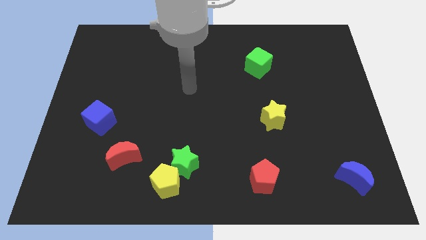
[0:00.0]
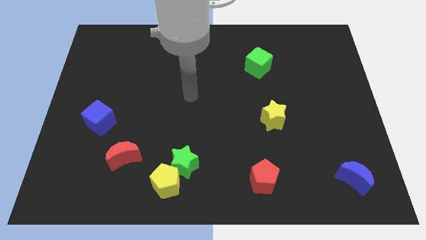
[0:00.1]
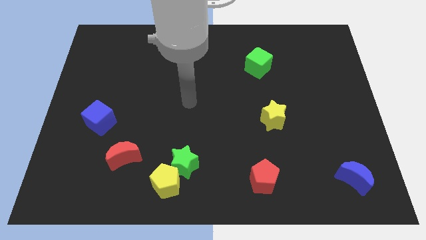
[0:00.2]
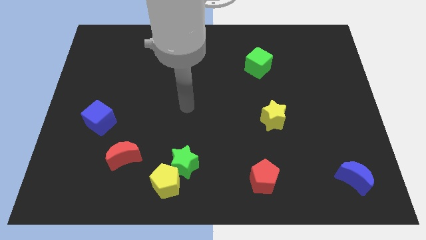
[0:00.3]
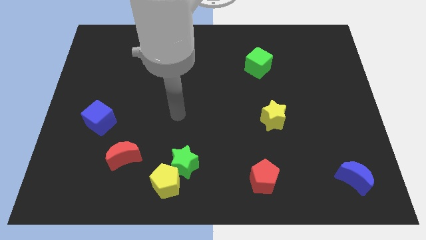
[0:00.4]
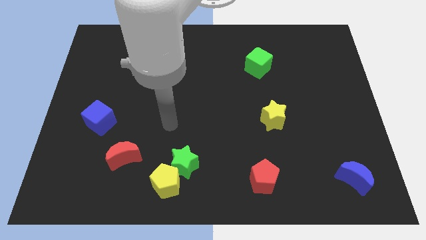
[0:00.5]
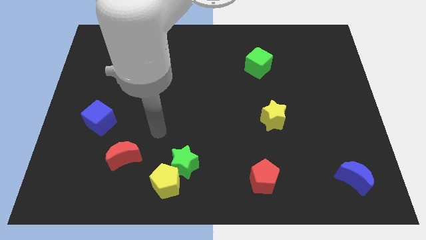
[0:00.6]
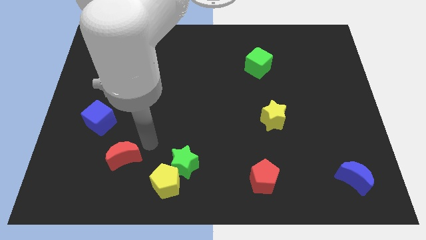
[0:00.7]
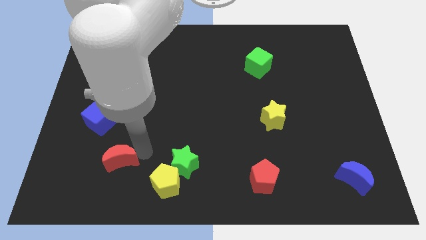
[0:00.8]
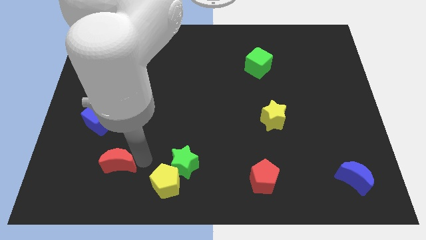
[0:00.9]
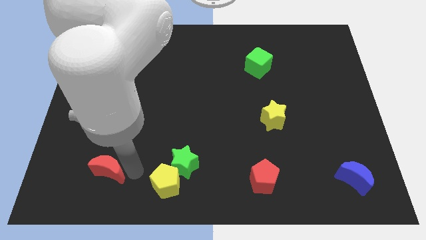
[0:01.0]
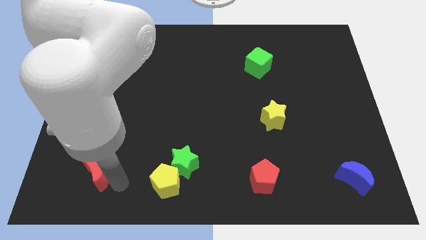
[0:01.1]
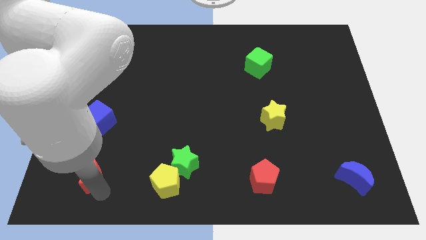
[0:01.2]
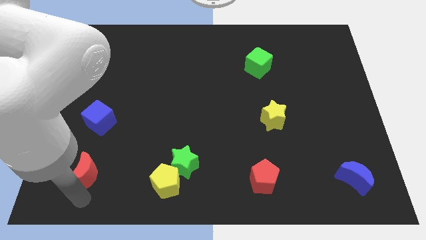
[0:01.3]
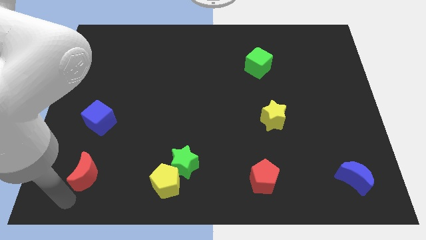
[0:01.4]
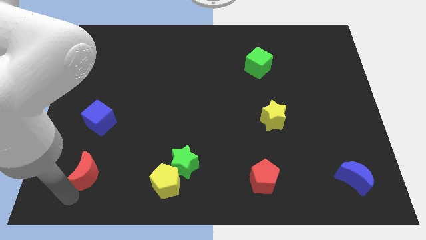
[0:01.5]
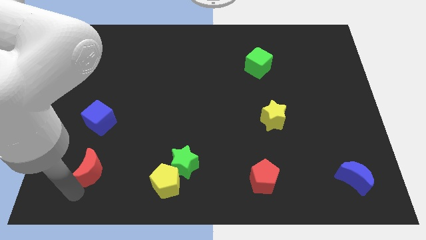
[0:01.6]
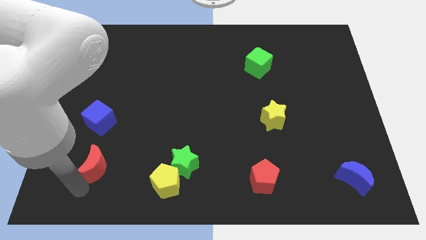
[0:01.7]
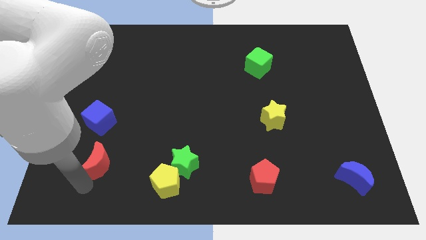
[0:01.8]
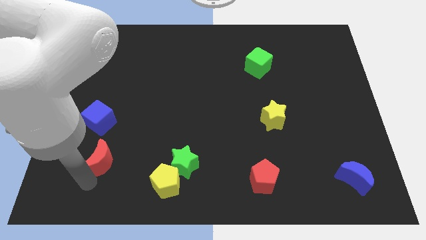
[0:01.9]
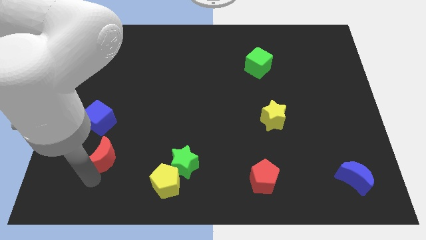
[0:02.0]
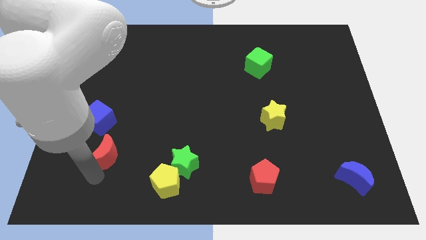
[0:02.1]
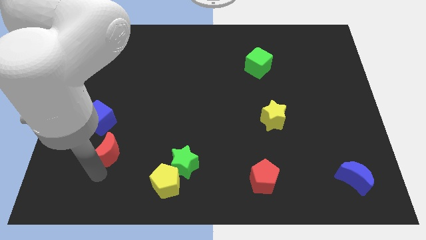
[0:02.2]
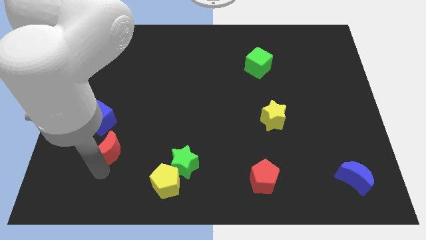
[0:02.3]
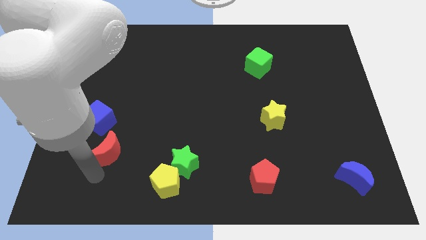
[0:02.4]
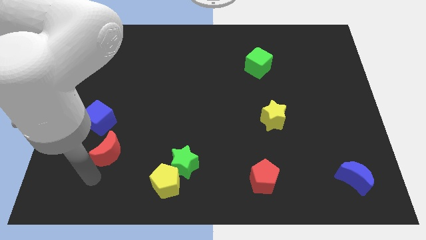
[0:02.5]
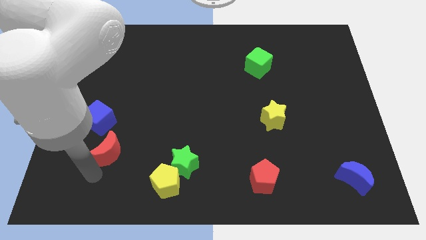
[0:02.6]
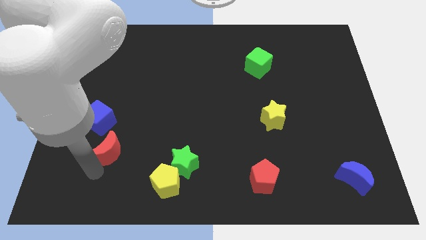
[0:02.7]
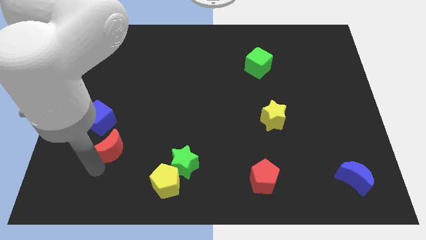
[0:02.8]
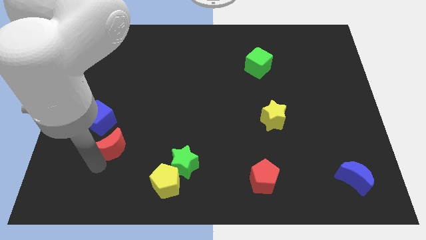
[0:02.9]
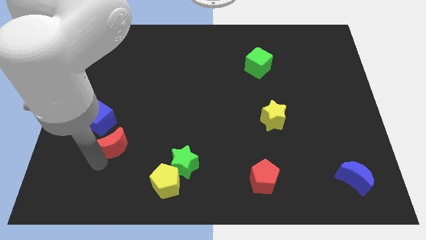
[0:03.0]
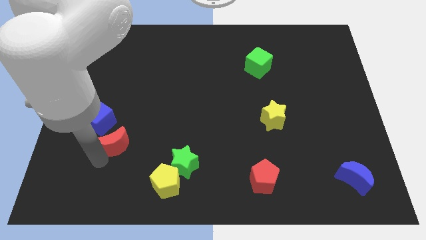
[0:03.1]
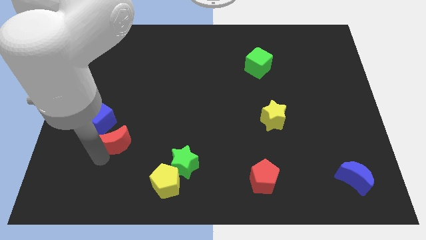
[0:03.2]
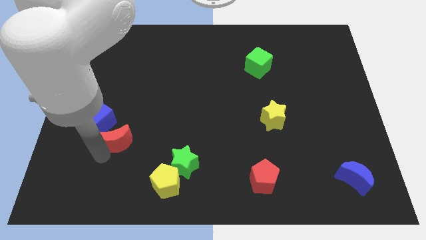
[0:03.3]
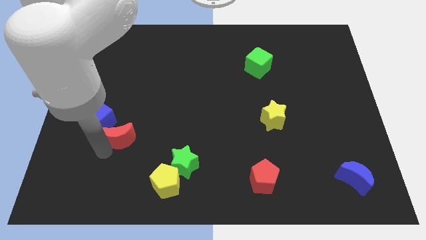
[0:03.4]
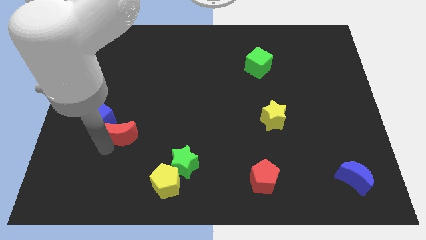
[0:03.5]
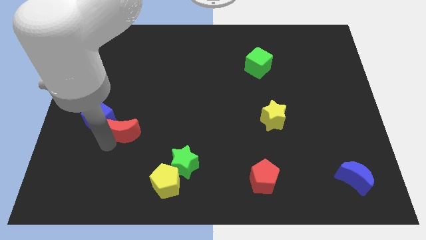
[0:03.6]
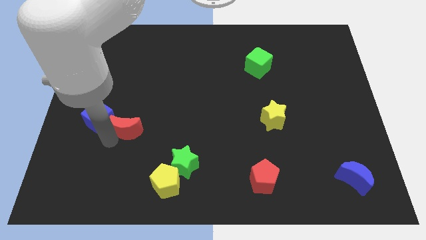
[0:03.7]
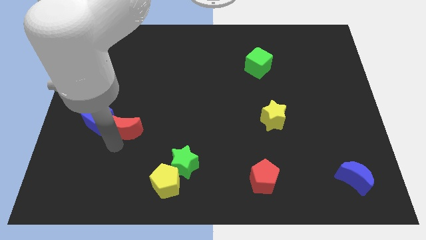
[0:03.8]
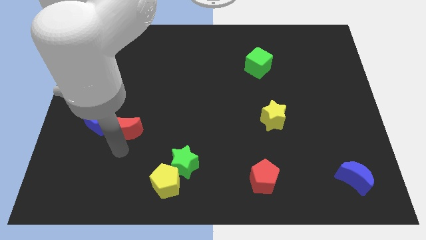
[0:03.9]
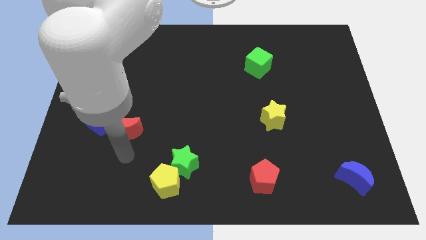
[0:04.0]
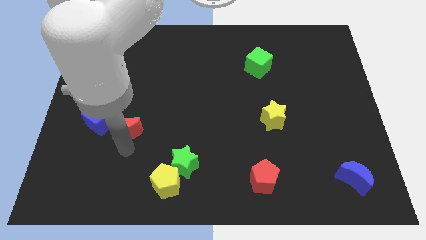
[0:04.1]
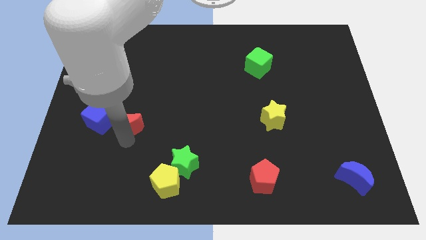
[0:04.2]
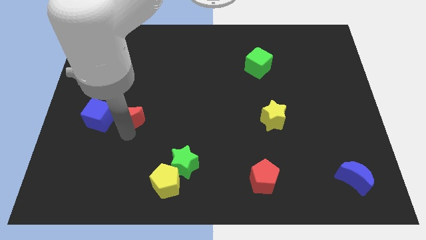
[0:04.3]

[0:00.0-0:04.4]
push the red moon diagonally up and to the right of the blue cube

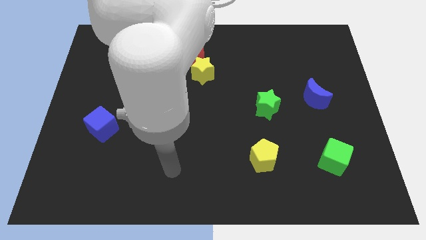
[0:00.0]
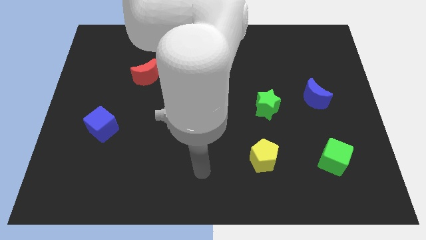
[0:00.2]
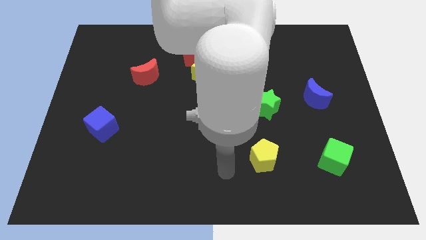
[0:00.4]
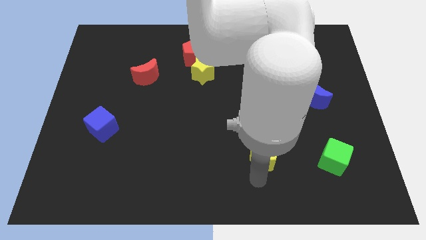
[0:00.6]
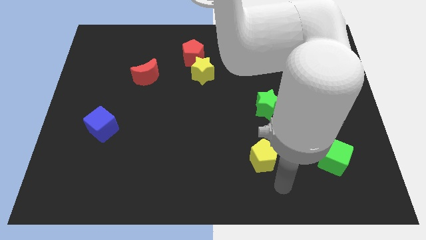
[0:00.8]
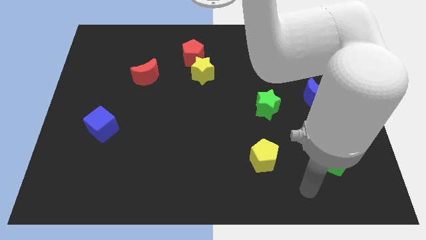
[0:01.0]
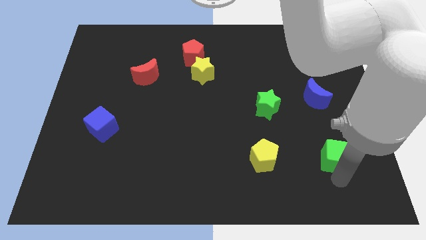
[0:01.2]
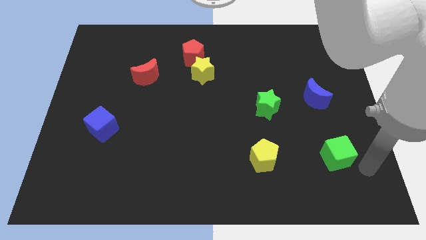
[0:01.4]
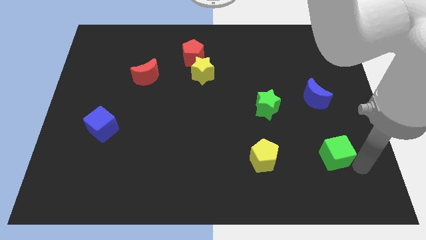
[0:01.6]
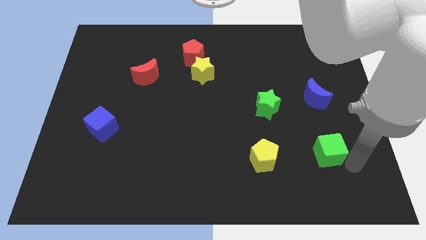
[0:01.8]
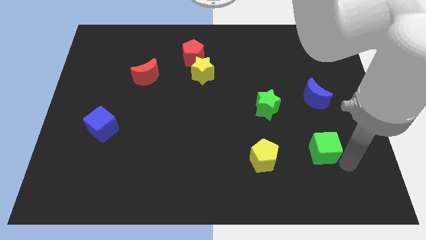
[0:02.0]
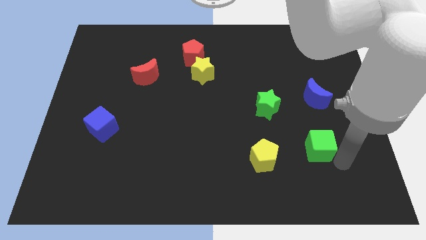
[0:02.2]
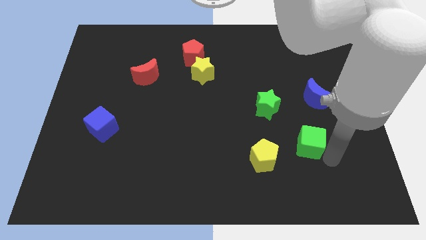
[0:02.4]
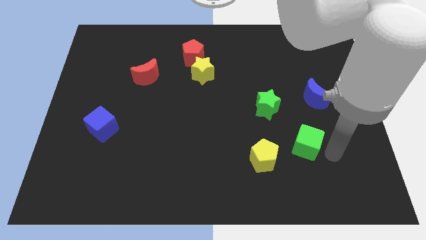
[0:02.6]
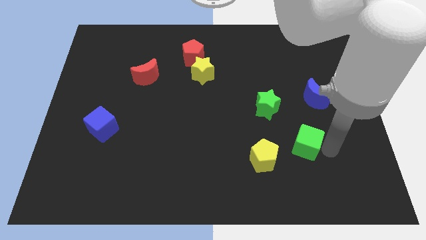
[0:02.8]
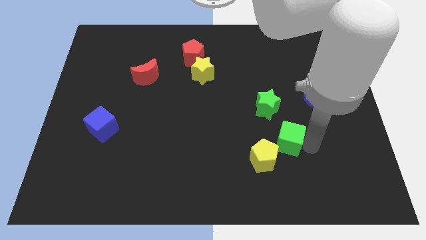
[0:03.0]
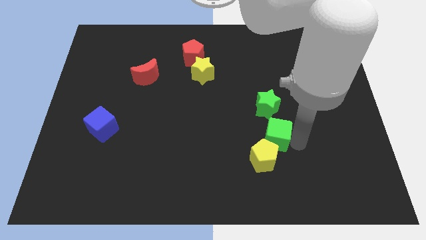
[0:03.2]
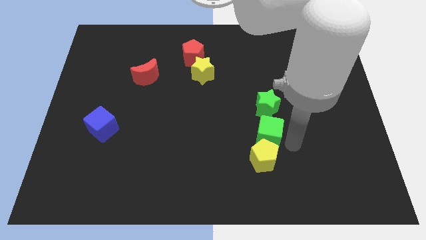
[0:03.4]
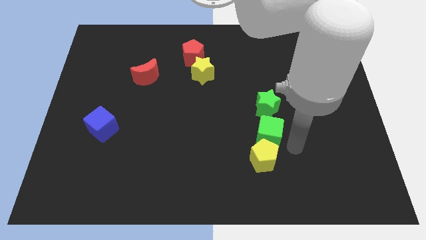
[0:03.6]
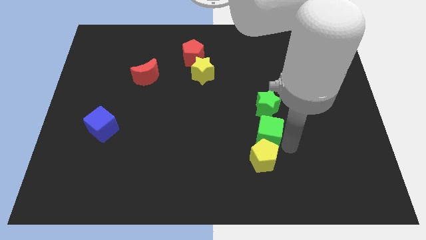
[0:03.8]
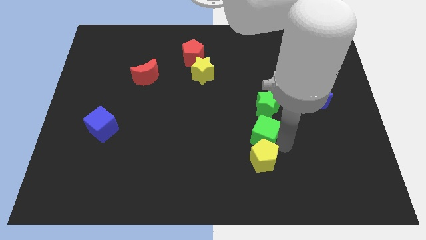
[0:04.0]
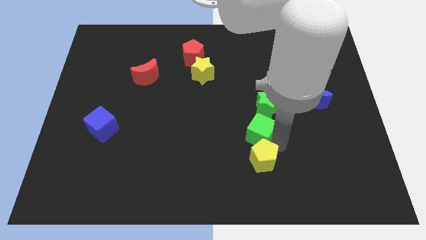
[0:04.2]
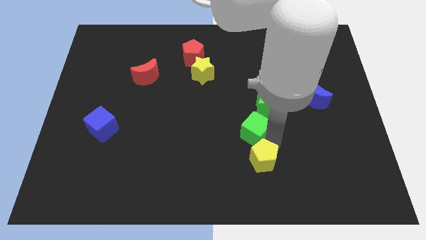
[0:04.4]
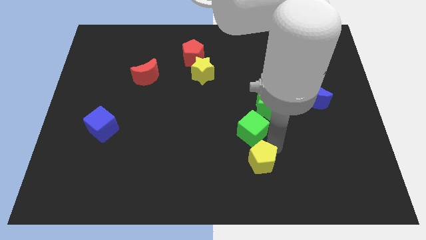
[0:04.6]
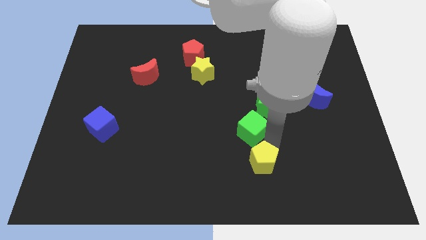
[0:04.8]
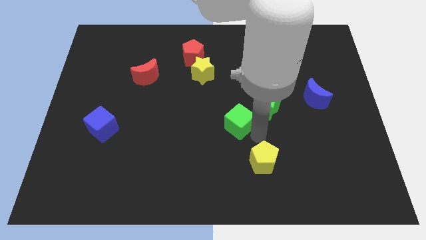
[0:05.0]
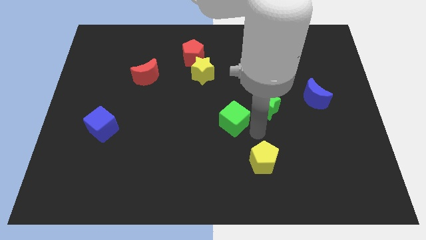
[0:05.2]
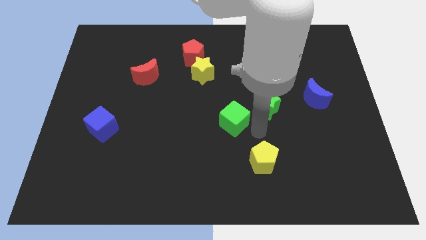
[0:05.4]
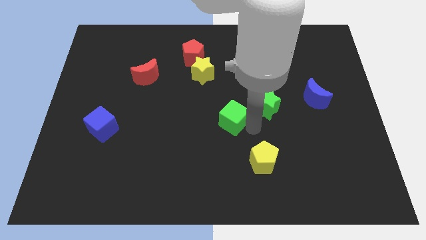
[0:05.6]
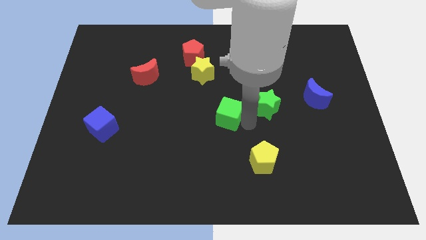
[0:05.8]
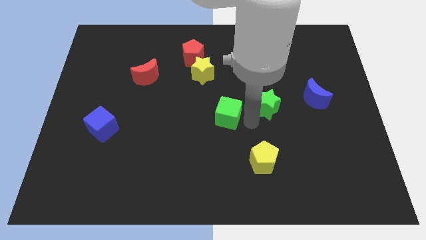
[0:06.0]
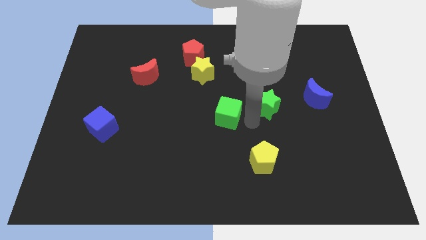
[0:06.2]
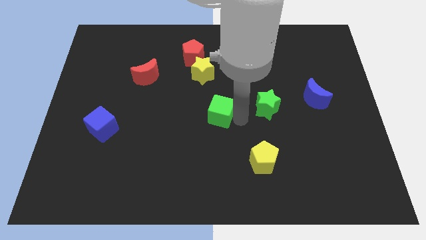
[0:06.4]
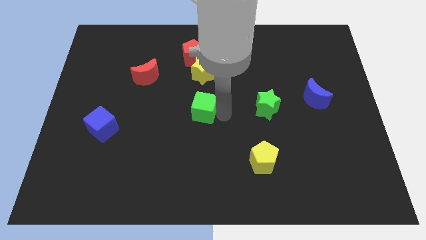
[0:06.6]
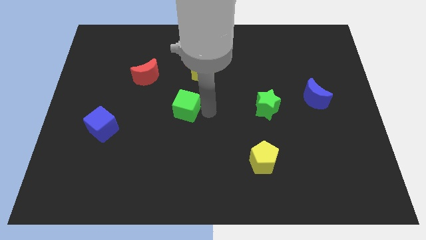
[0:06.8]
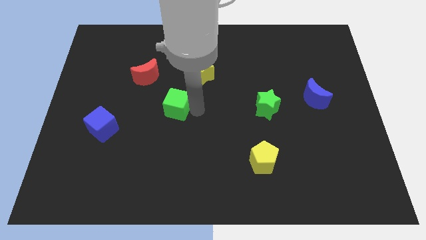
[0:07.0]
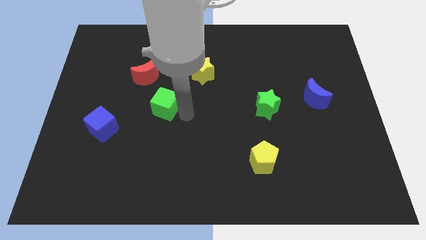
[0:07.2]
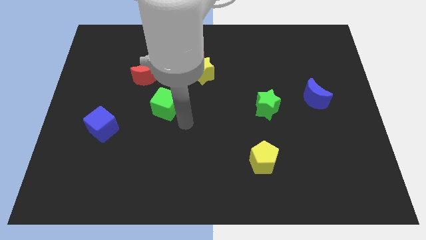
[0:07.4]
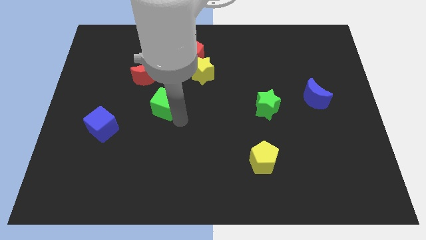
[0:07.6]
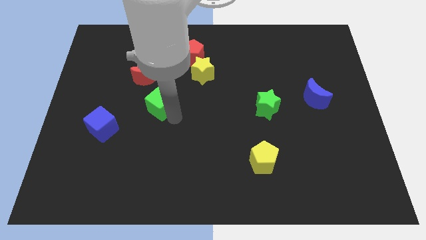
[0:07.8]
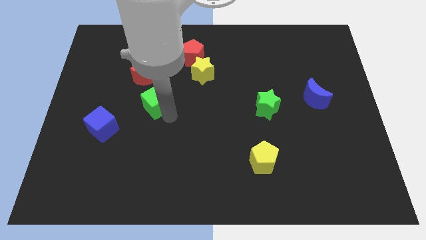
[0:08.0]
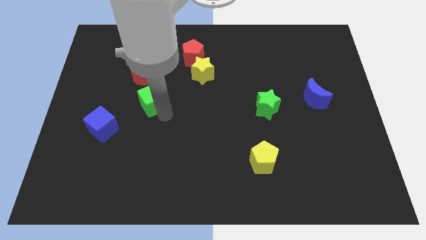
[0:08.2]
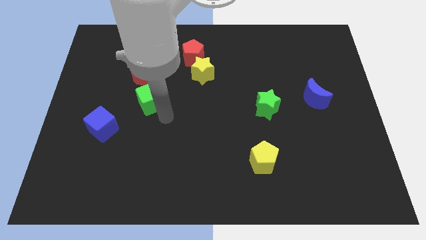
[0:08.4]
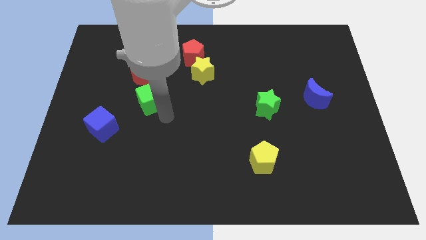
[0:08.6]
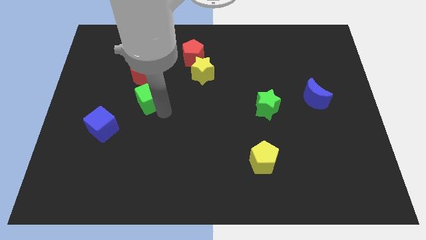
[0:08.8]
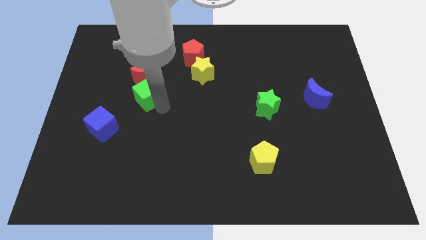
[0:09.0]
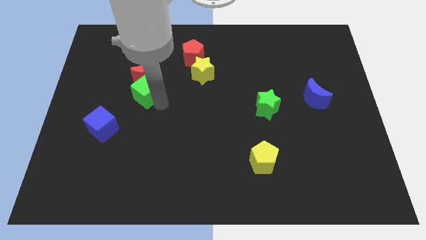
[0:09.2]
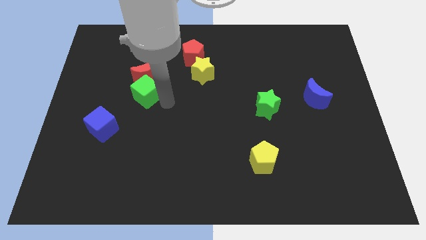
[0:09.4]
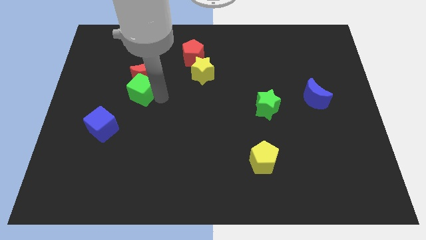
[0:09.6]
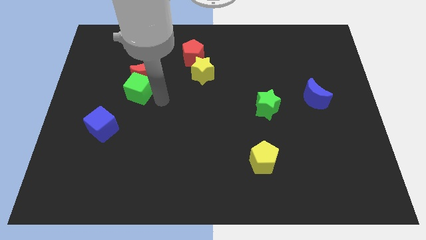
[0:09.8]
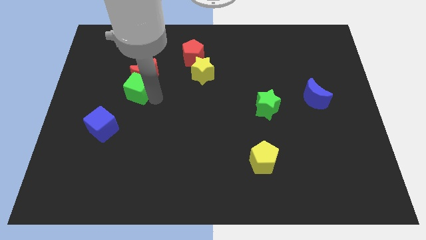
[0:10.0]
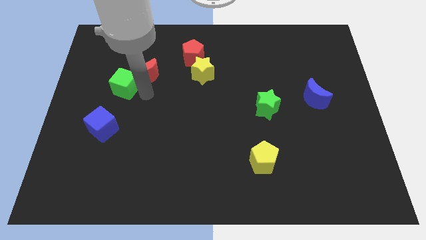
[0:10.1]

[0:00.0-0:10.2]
put the green cube to the left of the red moon
